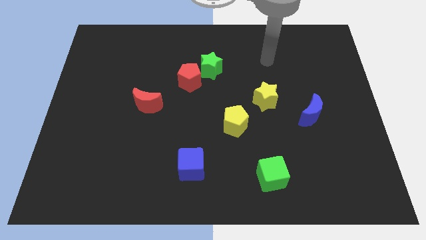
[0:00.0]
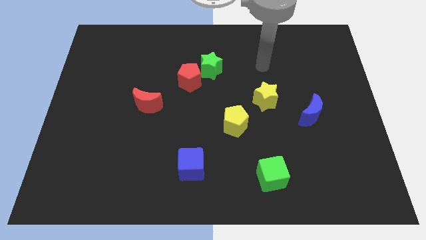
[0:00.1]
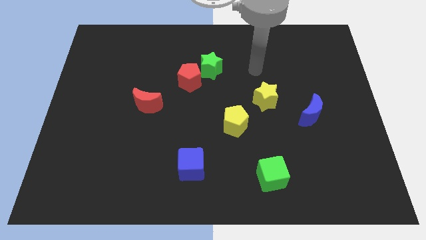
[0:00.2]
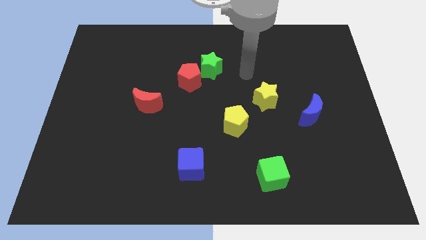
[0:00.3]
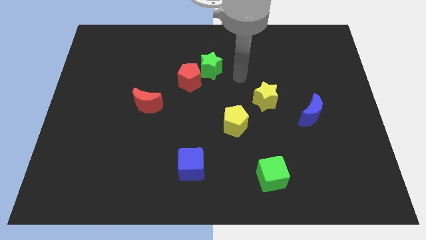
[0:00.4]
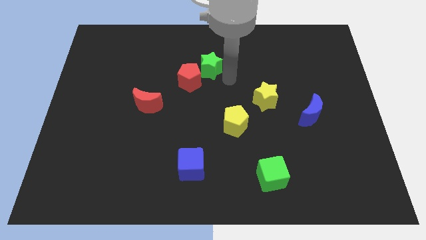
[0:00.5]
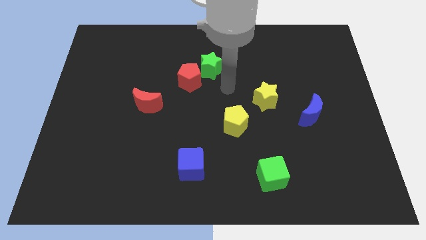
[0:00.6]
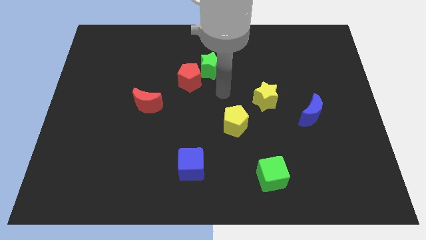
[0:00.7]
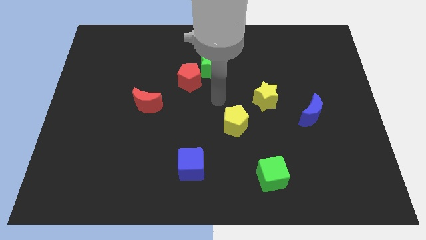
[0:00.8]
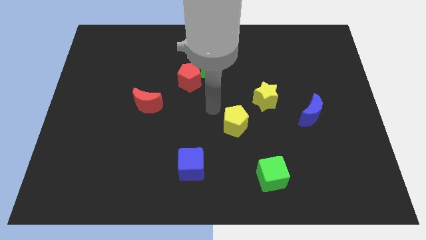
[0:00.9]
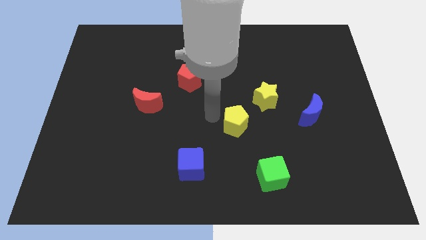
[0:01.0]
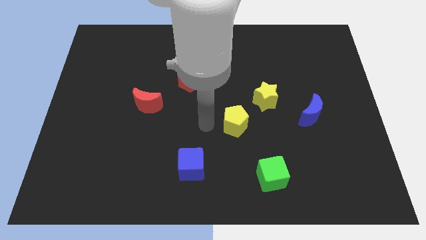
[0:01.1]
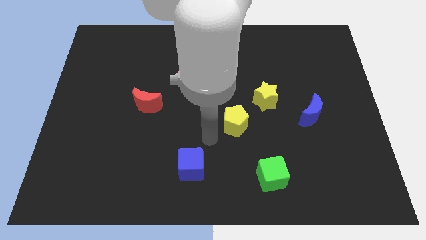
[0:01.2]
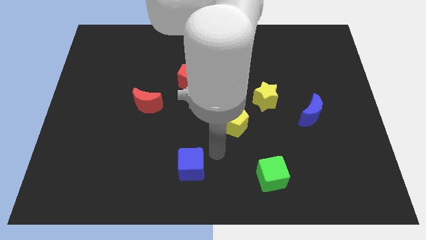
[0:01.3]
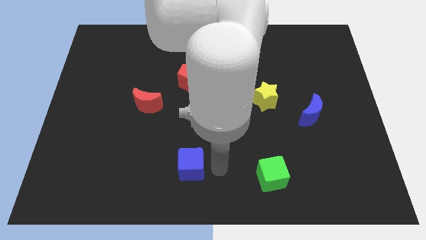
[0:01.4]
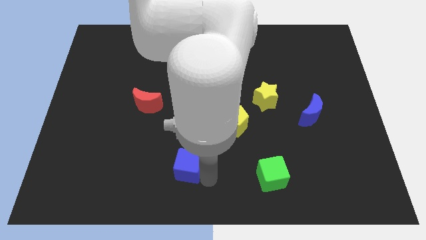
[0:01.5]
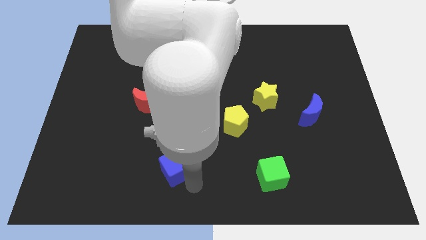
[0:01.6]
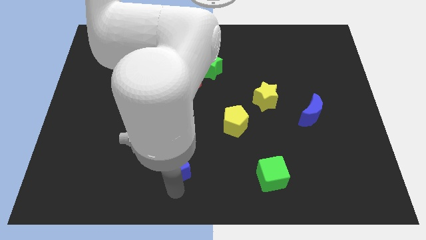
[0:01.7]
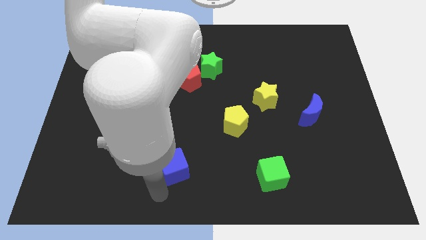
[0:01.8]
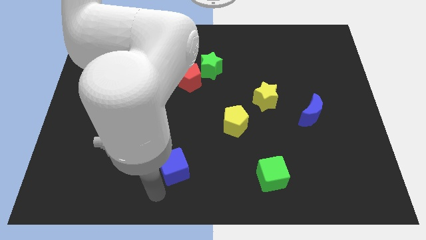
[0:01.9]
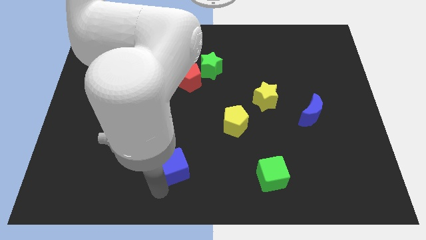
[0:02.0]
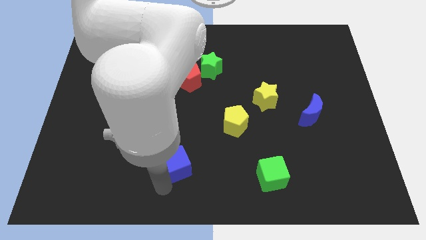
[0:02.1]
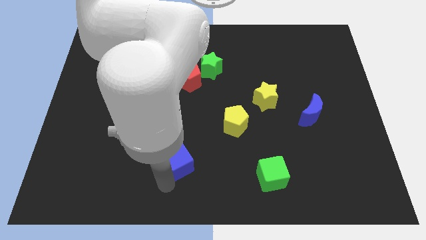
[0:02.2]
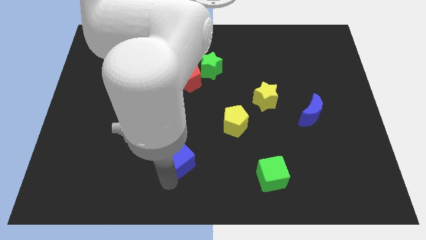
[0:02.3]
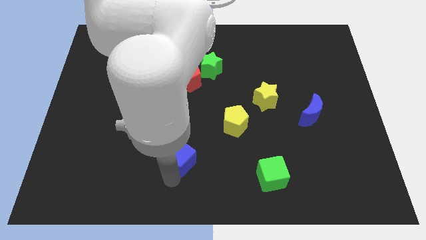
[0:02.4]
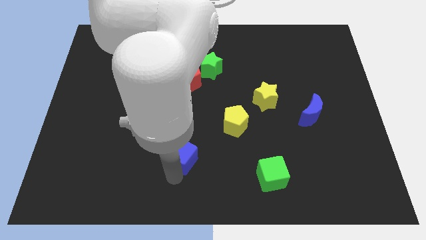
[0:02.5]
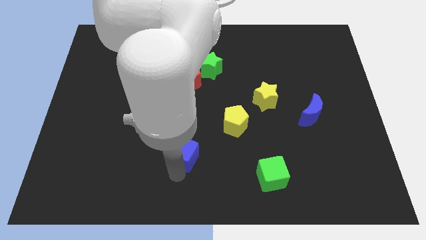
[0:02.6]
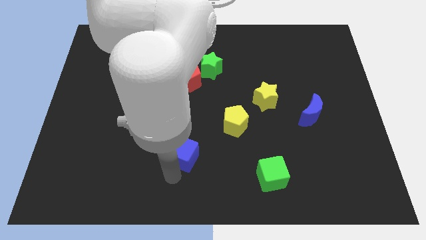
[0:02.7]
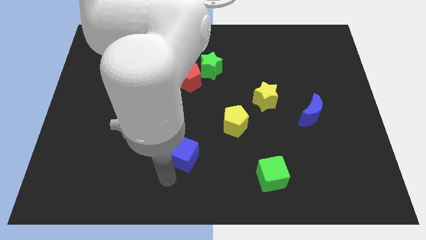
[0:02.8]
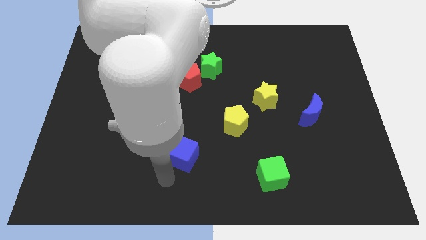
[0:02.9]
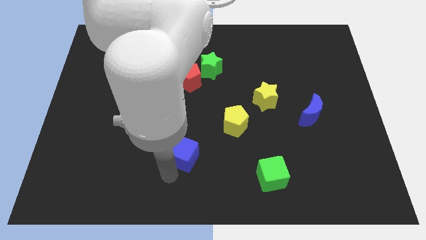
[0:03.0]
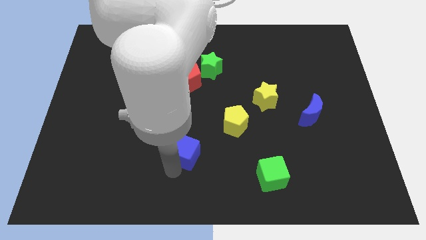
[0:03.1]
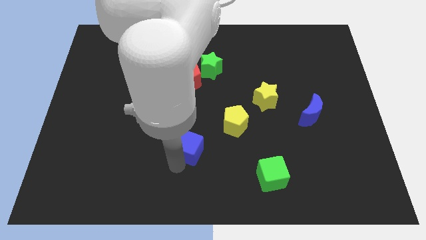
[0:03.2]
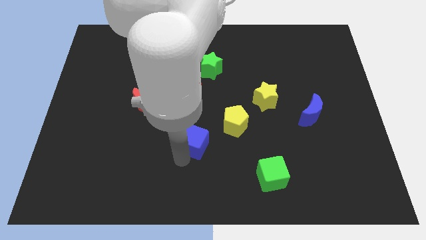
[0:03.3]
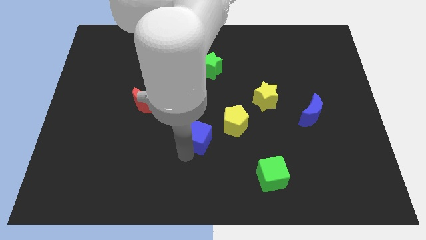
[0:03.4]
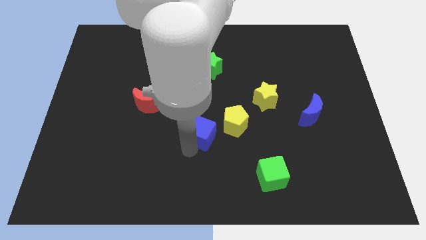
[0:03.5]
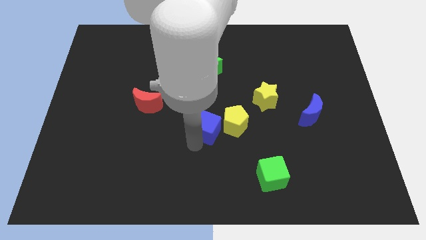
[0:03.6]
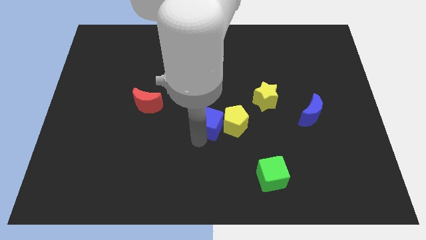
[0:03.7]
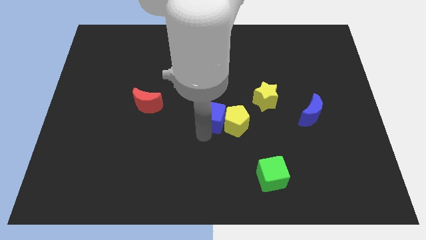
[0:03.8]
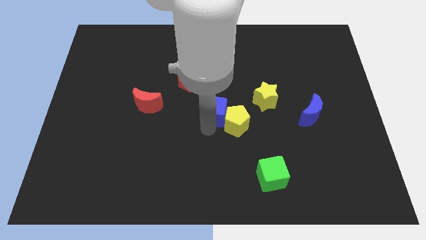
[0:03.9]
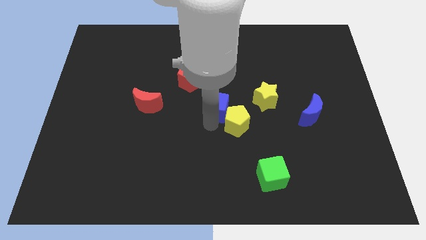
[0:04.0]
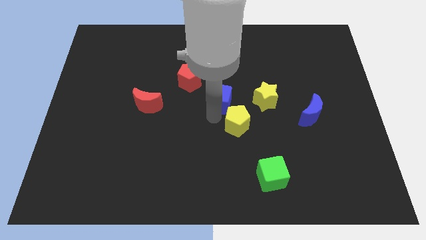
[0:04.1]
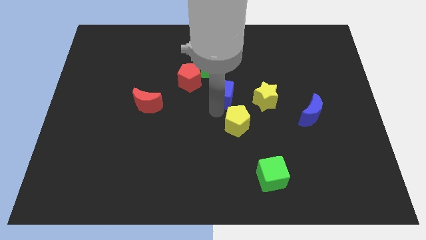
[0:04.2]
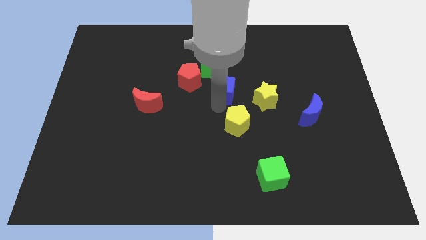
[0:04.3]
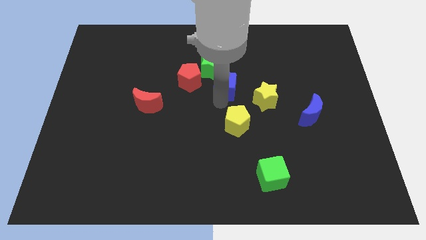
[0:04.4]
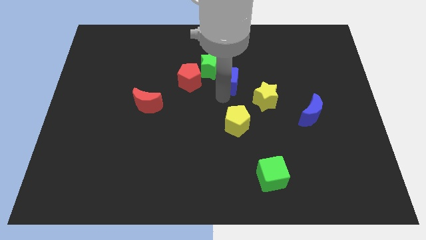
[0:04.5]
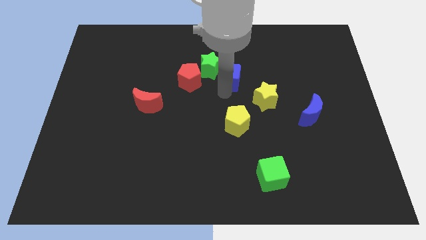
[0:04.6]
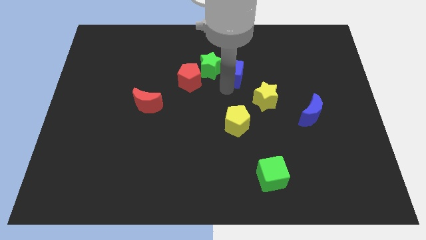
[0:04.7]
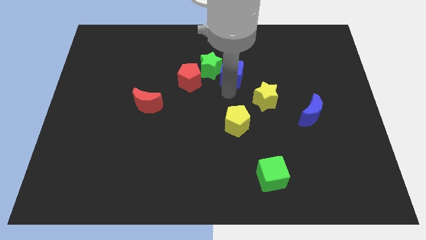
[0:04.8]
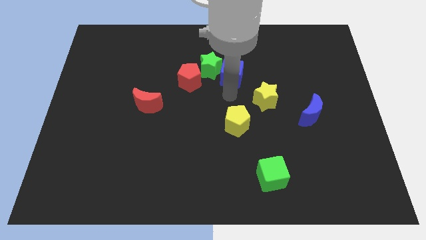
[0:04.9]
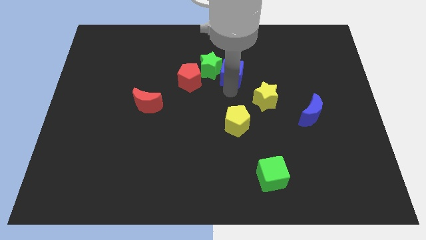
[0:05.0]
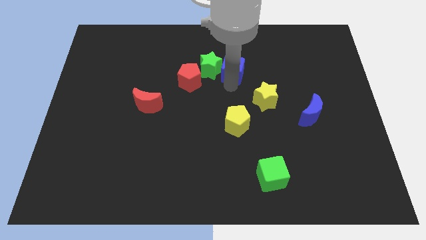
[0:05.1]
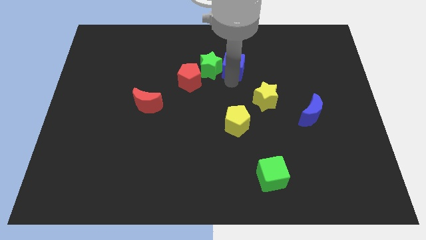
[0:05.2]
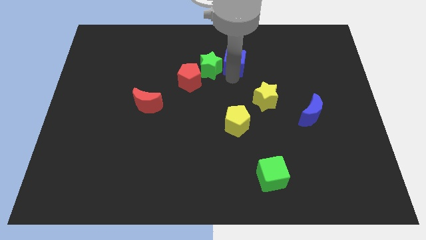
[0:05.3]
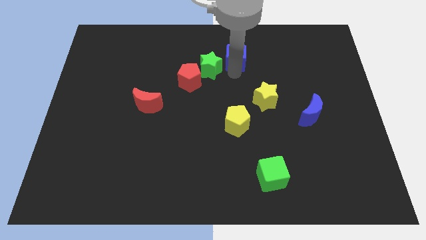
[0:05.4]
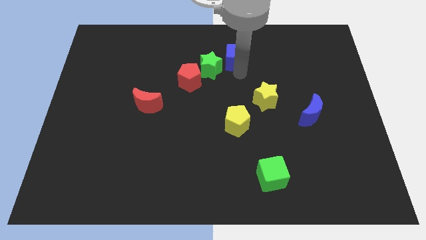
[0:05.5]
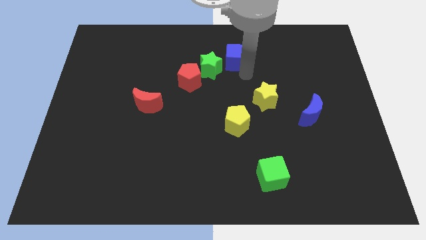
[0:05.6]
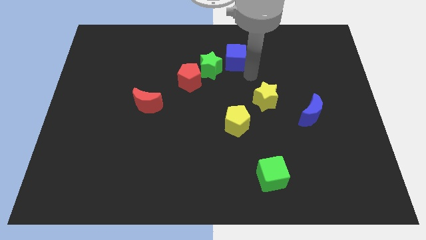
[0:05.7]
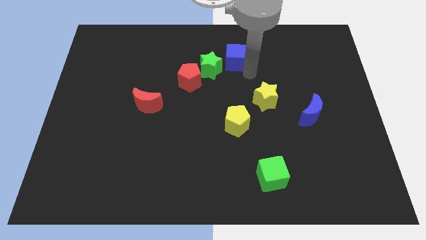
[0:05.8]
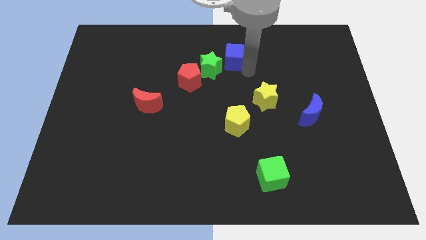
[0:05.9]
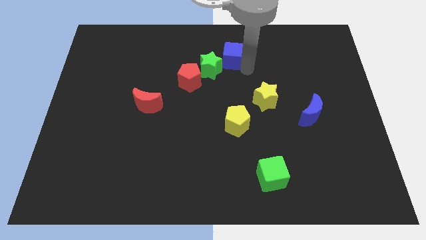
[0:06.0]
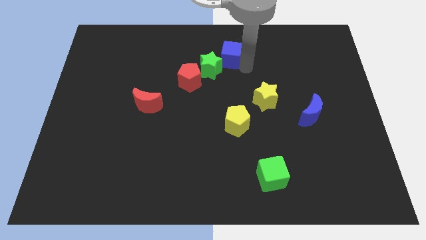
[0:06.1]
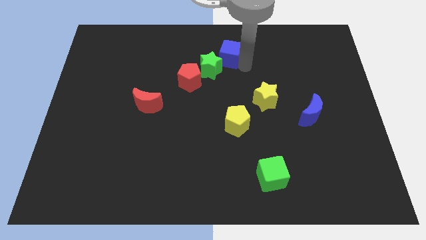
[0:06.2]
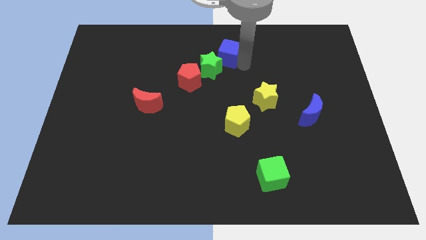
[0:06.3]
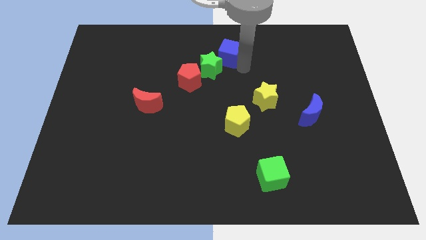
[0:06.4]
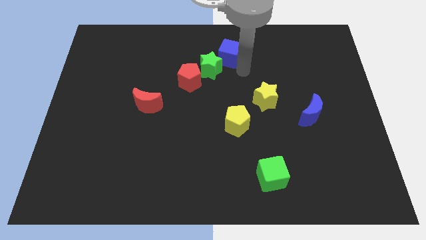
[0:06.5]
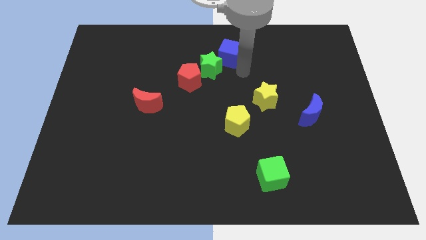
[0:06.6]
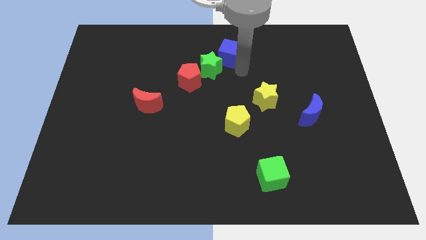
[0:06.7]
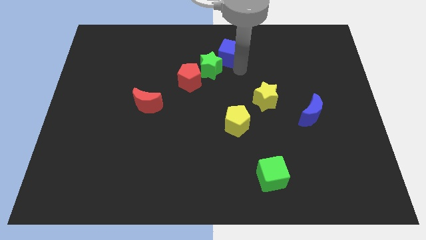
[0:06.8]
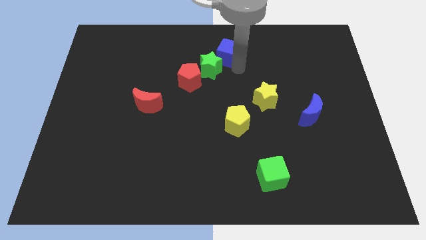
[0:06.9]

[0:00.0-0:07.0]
push the blue cube to the towards your base

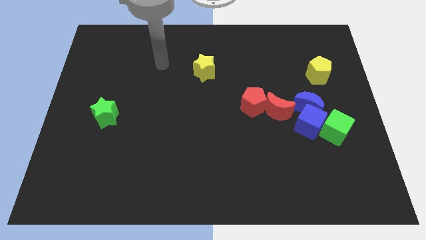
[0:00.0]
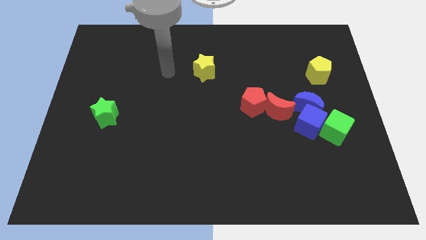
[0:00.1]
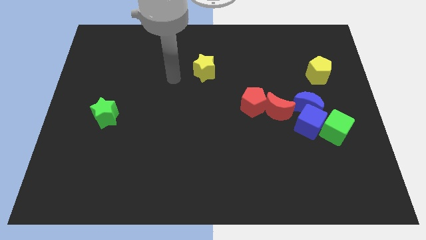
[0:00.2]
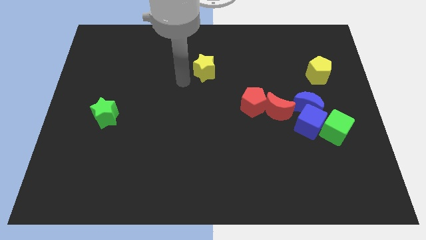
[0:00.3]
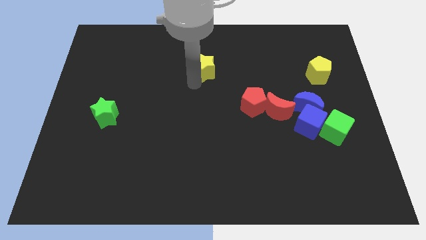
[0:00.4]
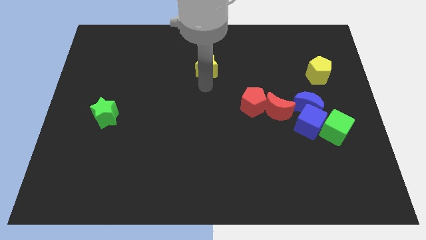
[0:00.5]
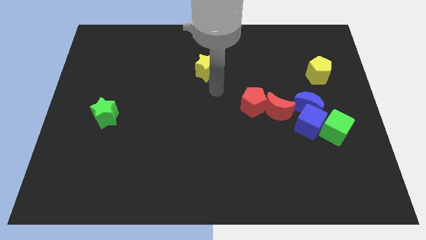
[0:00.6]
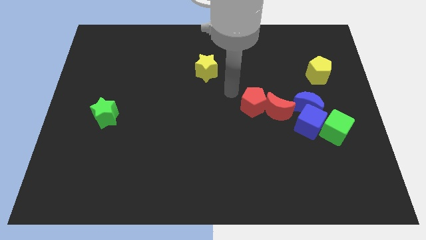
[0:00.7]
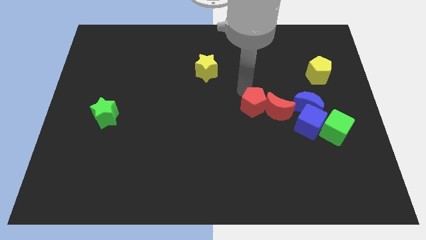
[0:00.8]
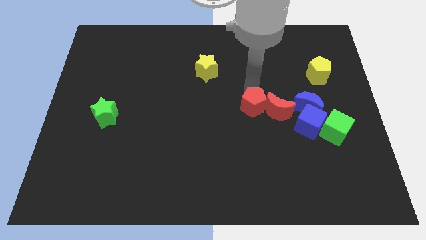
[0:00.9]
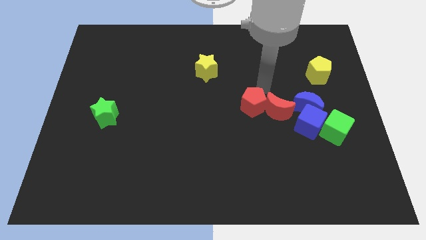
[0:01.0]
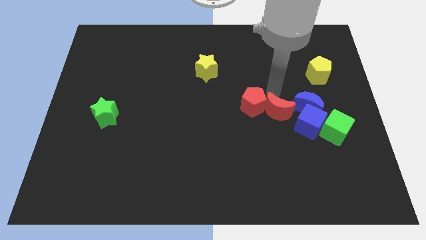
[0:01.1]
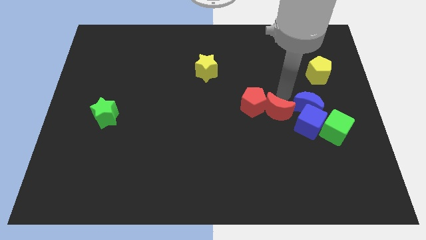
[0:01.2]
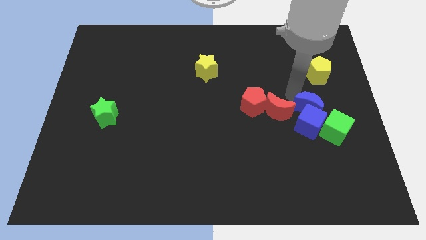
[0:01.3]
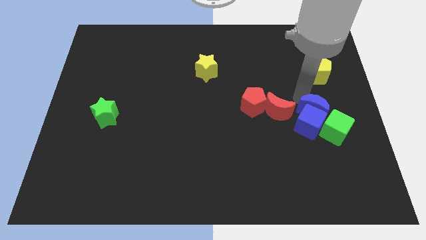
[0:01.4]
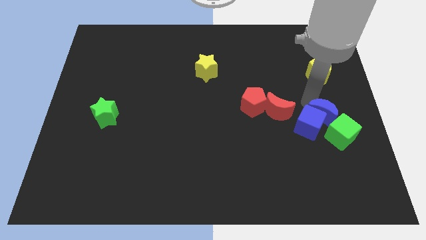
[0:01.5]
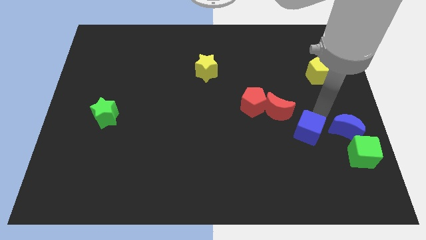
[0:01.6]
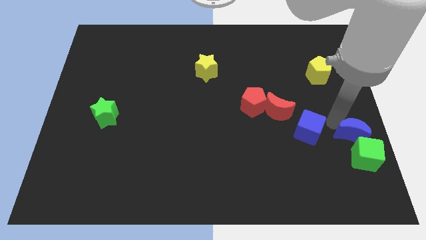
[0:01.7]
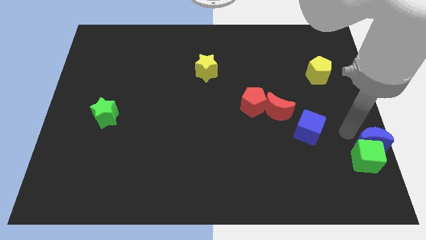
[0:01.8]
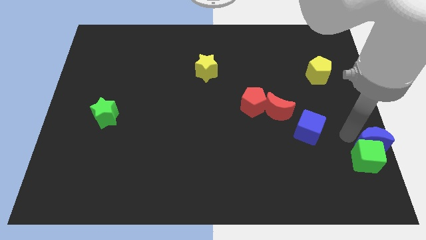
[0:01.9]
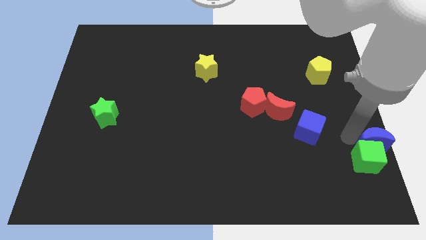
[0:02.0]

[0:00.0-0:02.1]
put the green cube to the bottom right of the board
